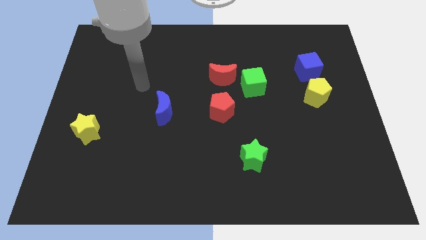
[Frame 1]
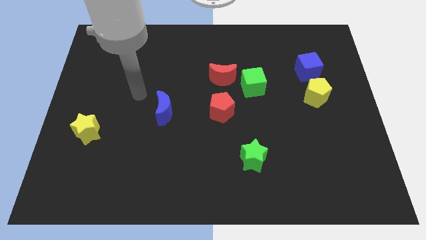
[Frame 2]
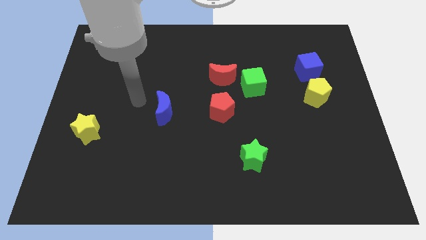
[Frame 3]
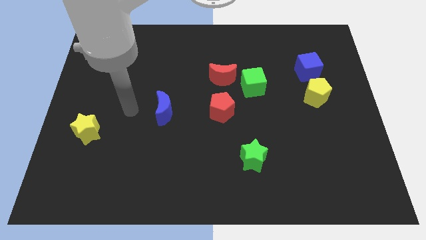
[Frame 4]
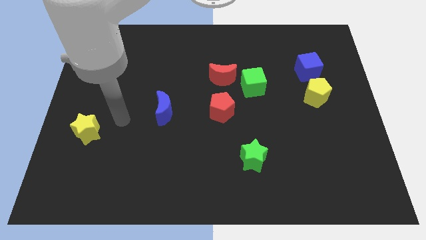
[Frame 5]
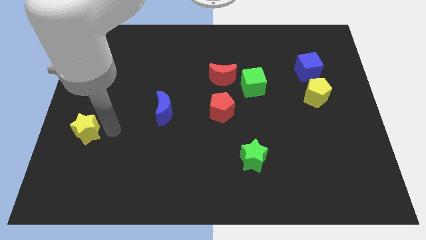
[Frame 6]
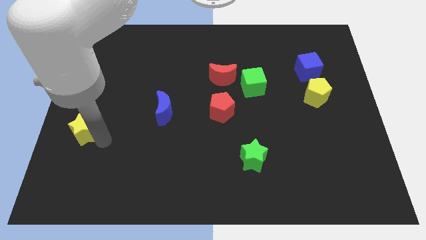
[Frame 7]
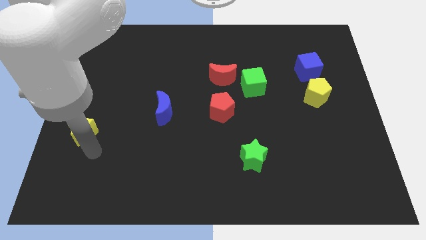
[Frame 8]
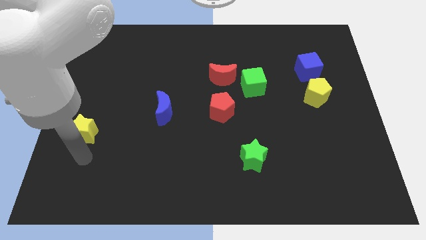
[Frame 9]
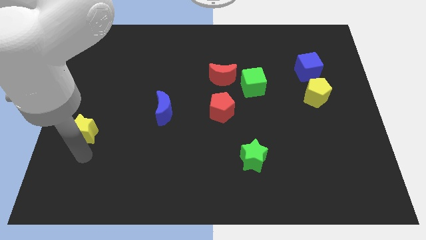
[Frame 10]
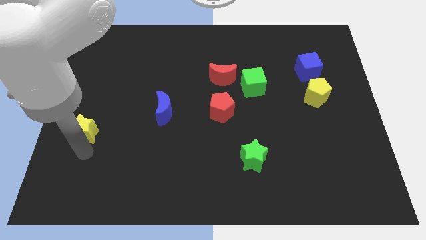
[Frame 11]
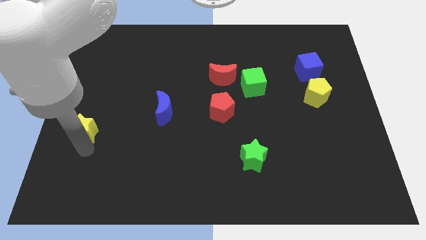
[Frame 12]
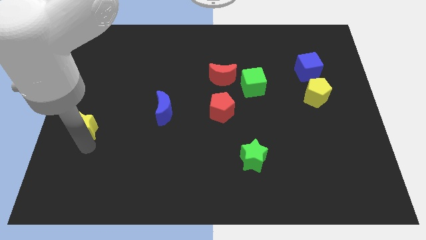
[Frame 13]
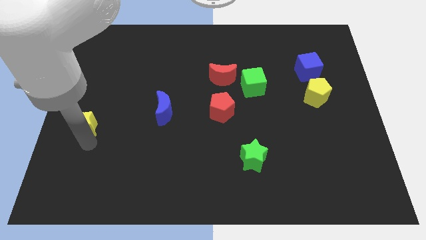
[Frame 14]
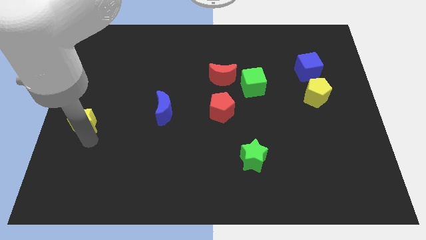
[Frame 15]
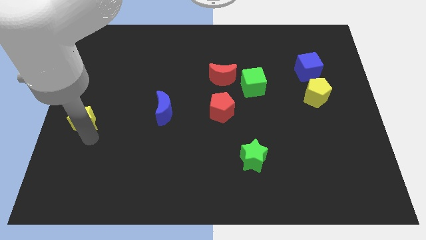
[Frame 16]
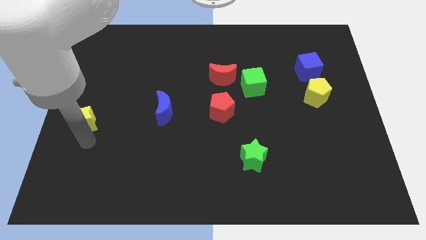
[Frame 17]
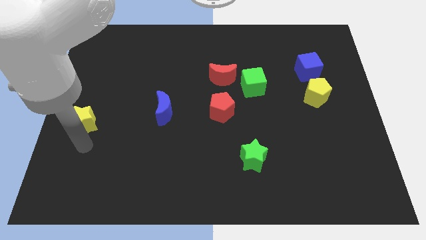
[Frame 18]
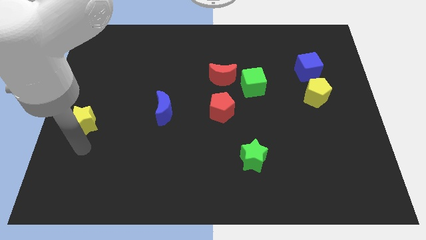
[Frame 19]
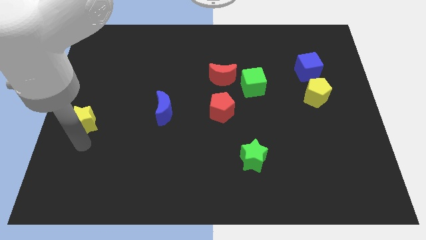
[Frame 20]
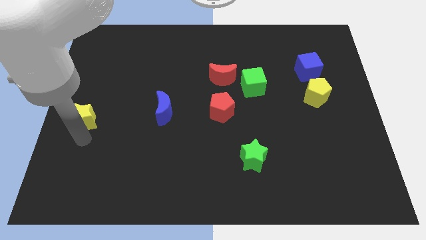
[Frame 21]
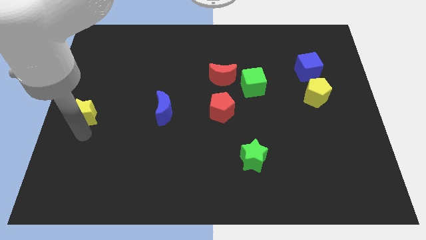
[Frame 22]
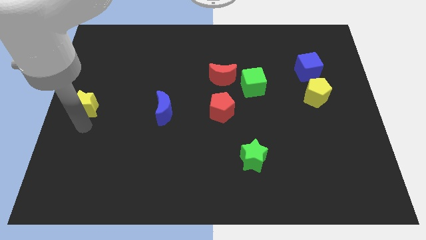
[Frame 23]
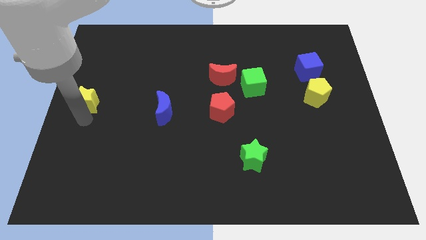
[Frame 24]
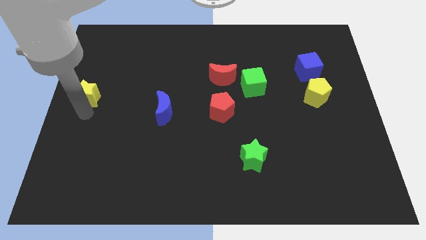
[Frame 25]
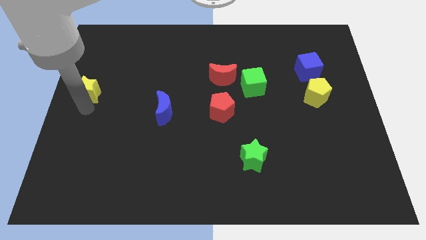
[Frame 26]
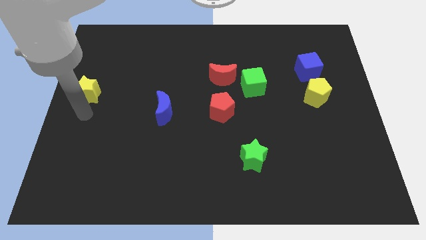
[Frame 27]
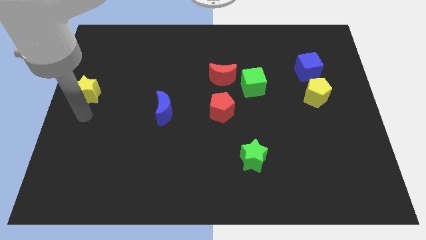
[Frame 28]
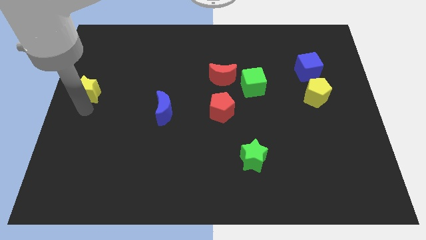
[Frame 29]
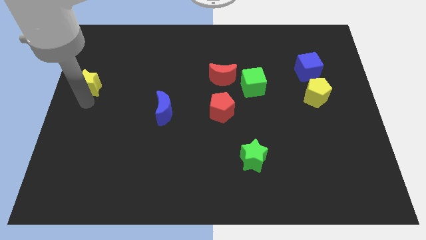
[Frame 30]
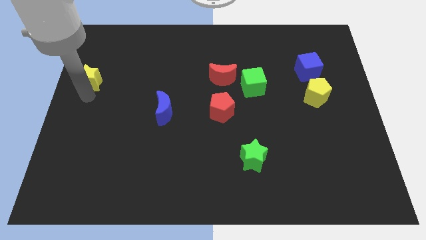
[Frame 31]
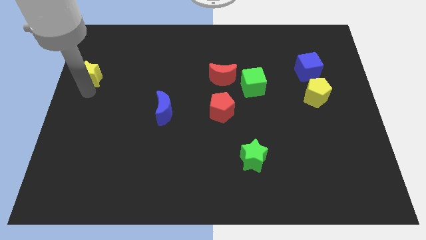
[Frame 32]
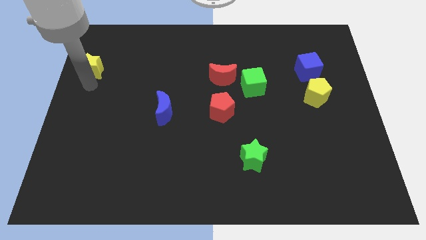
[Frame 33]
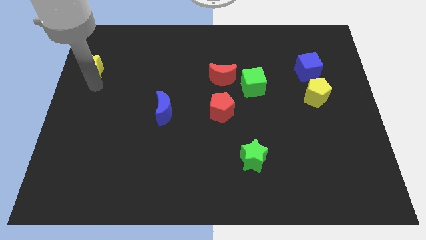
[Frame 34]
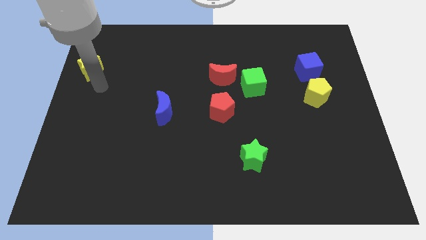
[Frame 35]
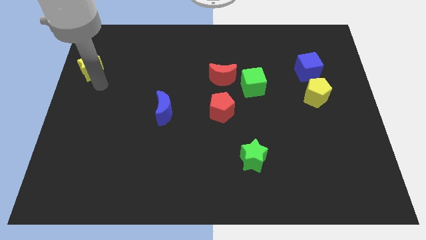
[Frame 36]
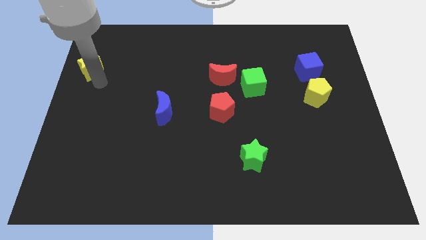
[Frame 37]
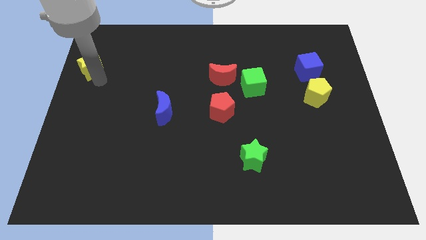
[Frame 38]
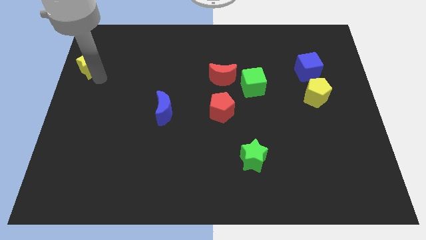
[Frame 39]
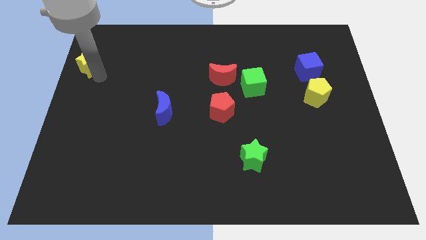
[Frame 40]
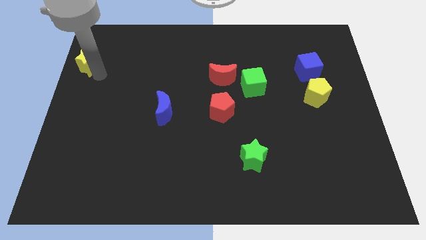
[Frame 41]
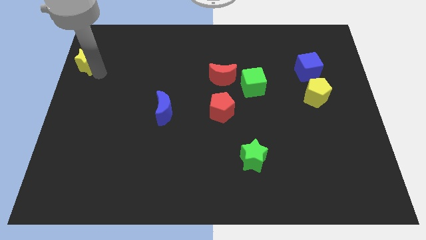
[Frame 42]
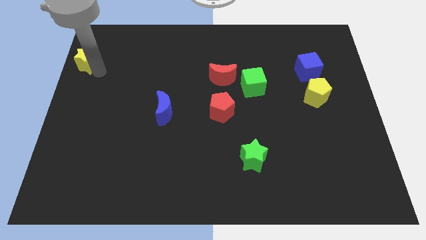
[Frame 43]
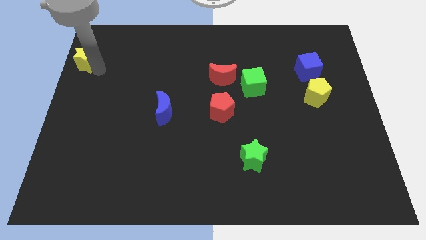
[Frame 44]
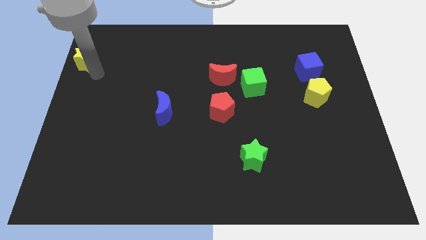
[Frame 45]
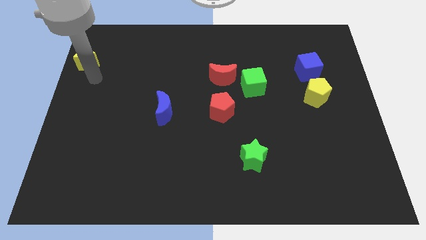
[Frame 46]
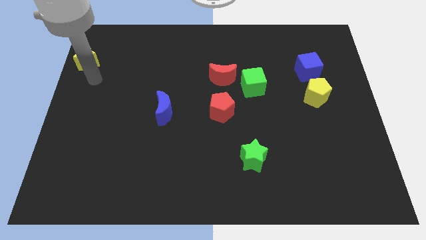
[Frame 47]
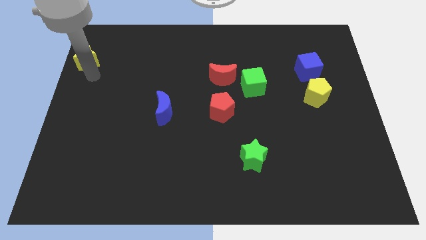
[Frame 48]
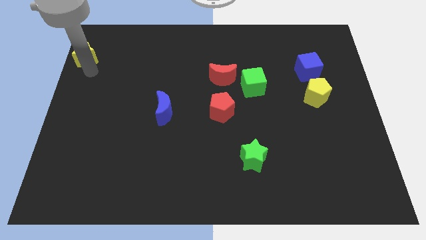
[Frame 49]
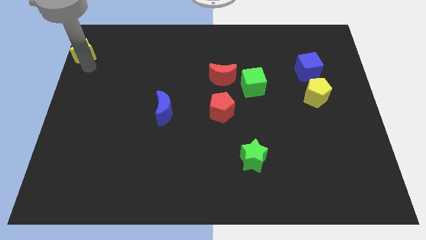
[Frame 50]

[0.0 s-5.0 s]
move the yellow star to the top left of the board

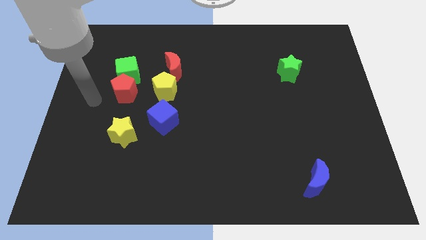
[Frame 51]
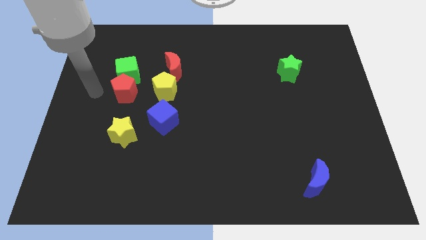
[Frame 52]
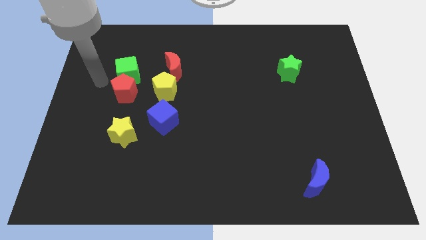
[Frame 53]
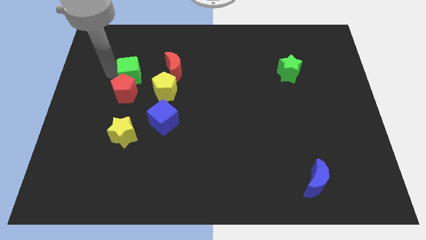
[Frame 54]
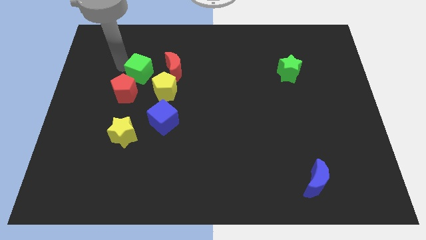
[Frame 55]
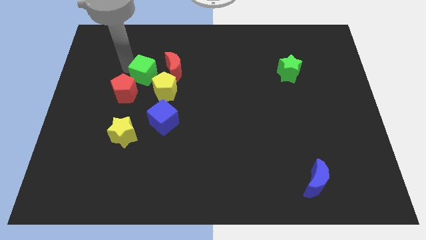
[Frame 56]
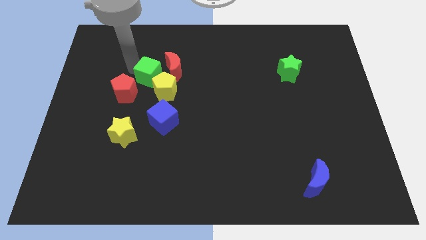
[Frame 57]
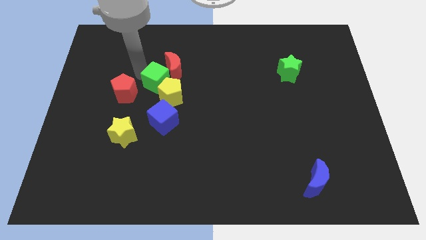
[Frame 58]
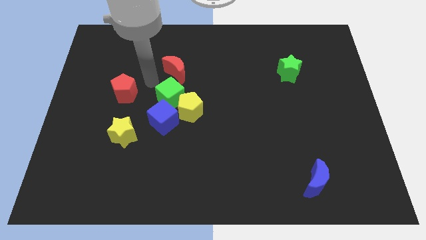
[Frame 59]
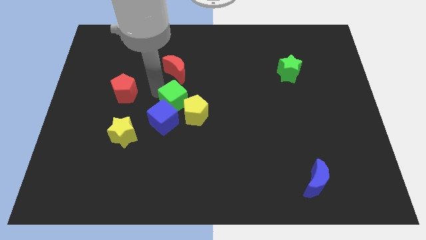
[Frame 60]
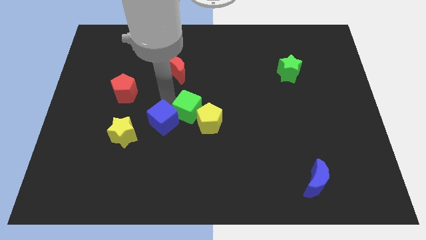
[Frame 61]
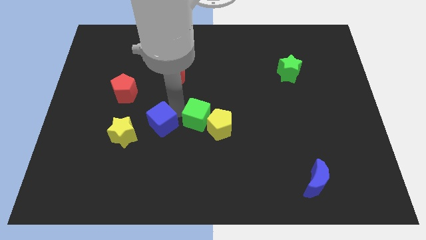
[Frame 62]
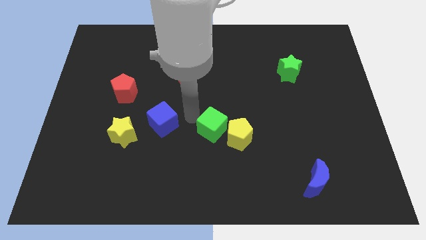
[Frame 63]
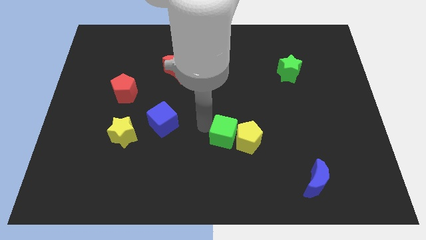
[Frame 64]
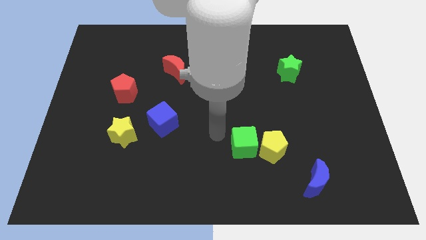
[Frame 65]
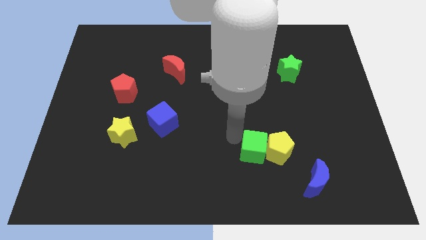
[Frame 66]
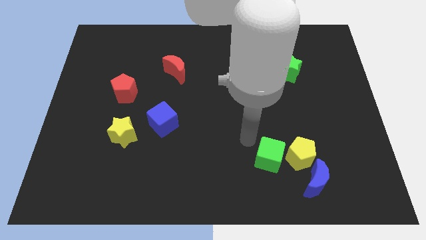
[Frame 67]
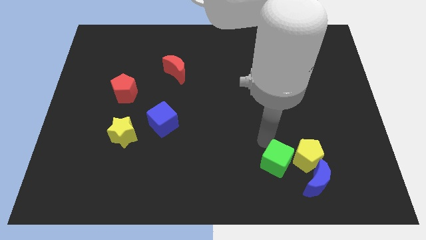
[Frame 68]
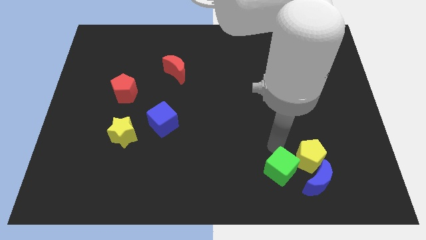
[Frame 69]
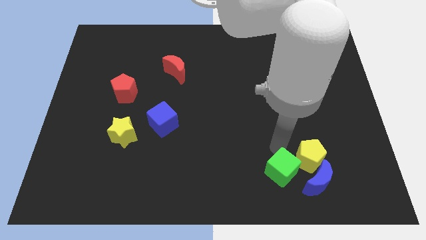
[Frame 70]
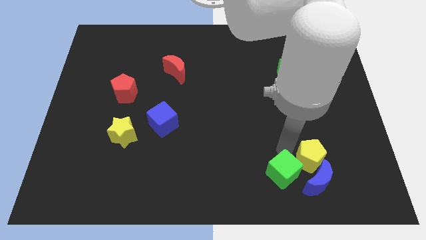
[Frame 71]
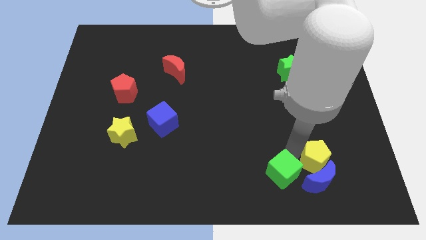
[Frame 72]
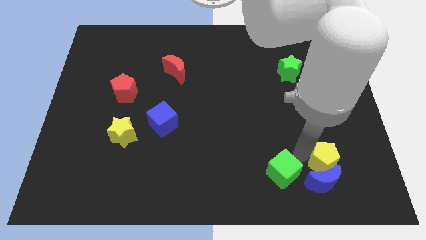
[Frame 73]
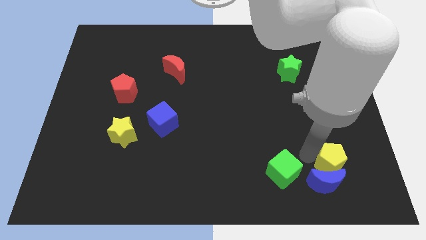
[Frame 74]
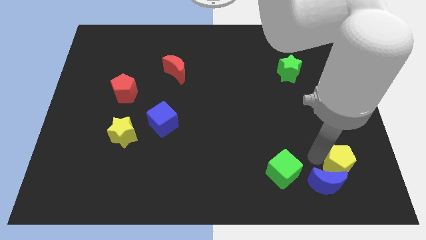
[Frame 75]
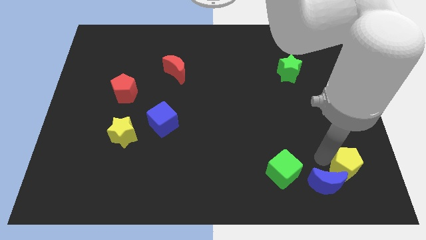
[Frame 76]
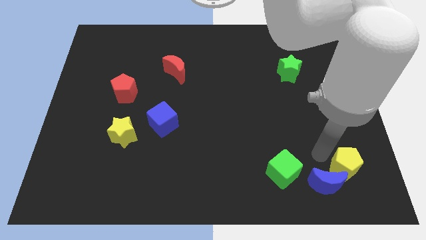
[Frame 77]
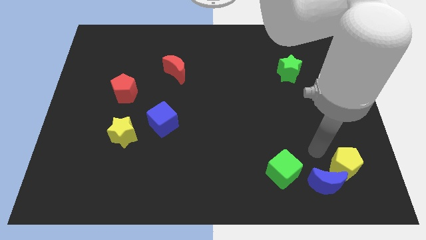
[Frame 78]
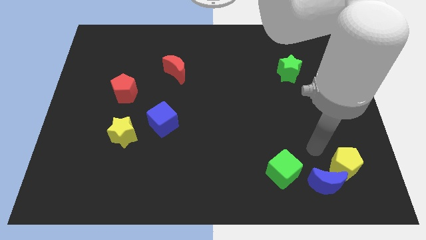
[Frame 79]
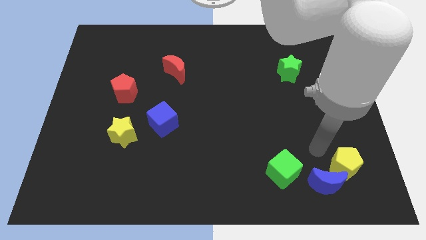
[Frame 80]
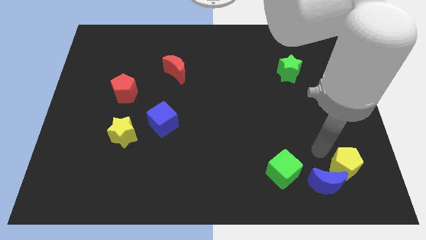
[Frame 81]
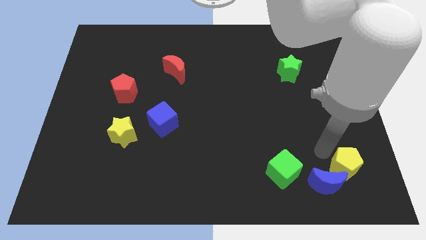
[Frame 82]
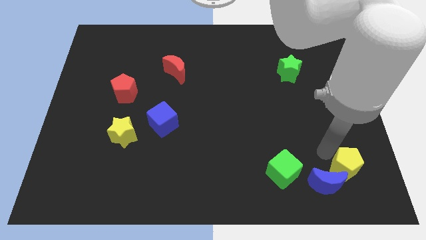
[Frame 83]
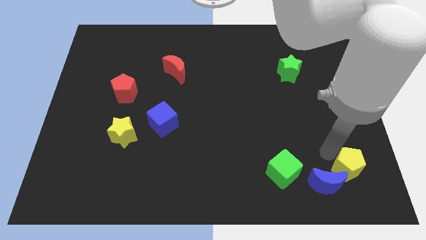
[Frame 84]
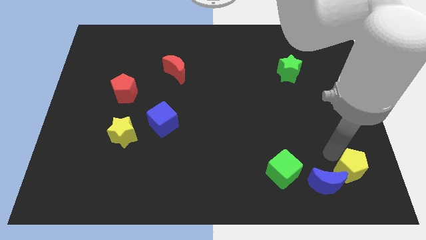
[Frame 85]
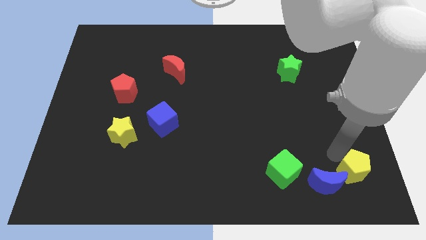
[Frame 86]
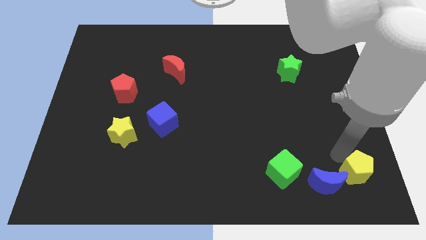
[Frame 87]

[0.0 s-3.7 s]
push the yellow pentagon to the lower right corner
